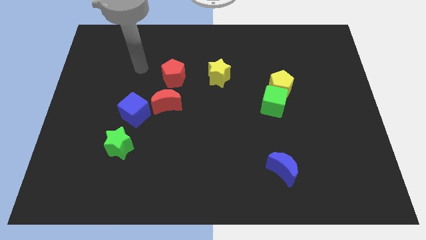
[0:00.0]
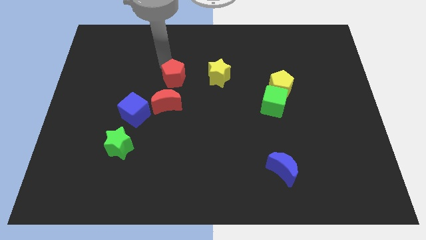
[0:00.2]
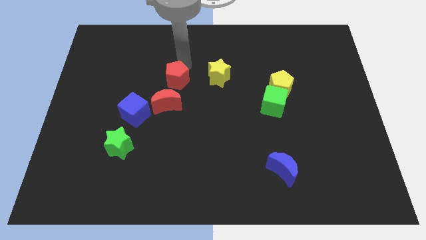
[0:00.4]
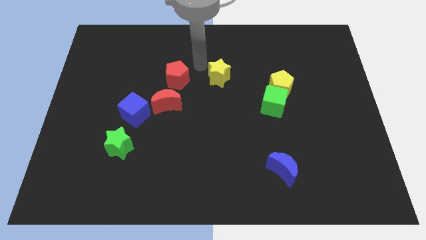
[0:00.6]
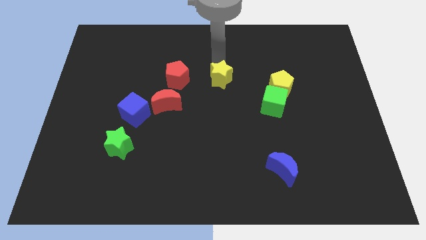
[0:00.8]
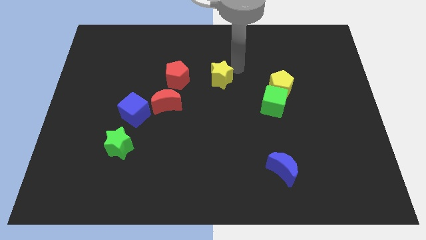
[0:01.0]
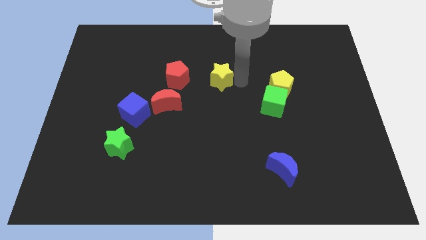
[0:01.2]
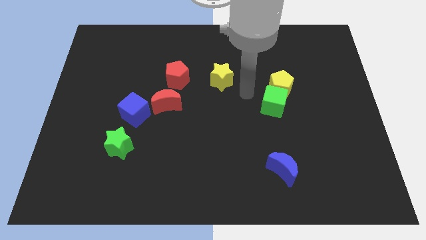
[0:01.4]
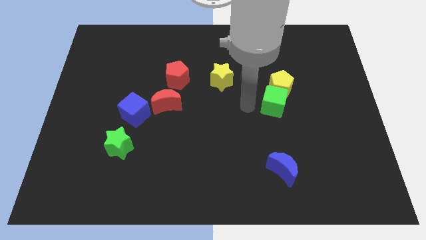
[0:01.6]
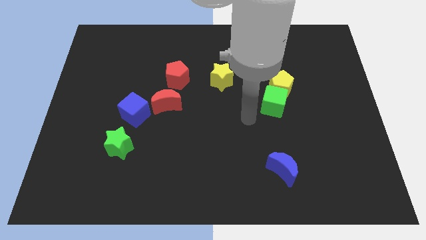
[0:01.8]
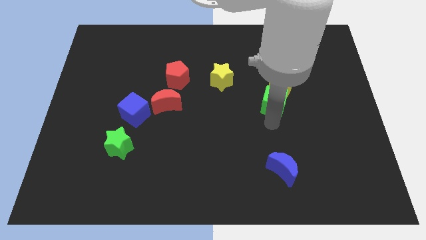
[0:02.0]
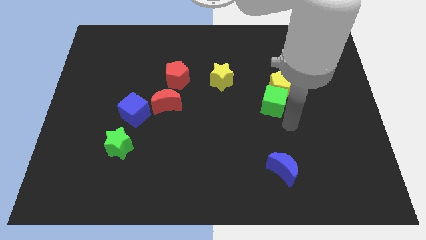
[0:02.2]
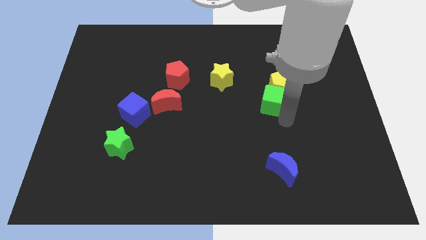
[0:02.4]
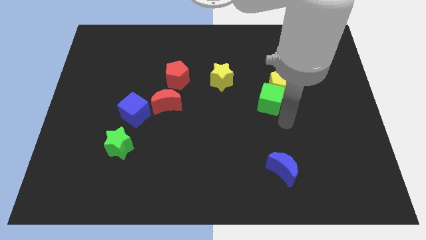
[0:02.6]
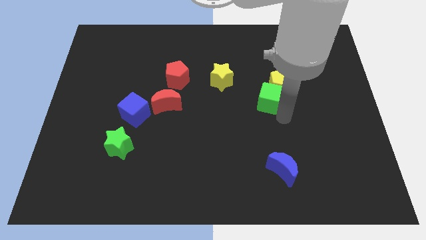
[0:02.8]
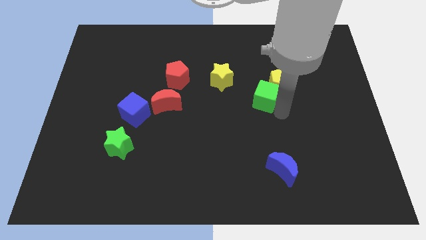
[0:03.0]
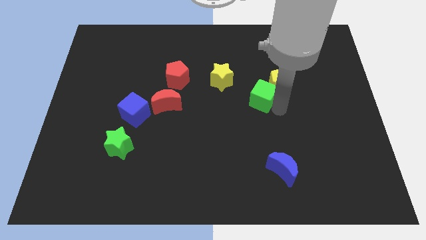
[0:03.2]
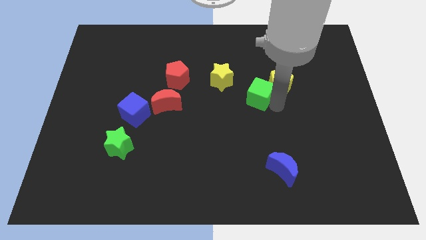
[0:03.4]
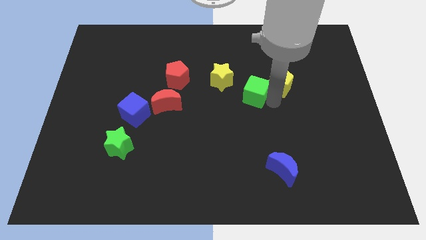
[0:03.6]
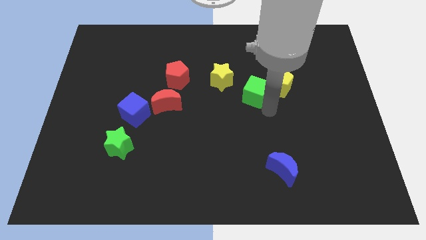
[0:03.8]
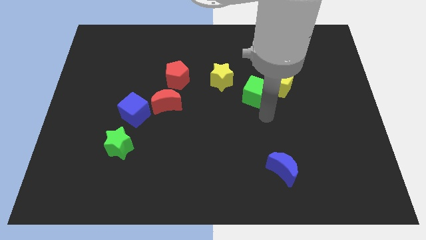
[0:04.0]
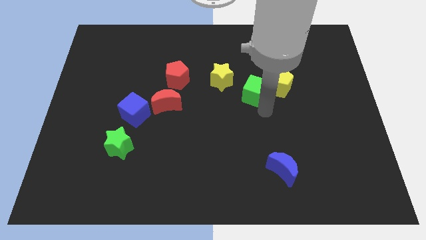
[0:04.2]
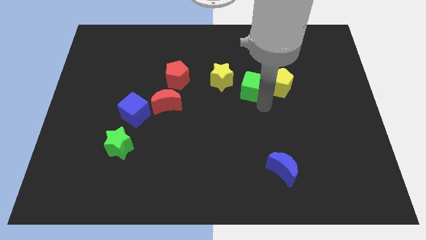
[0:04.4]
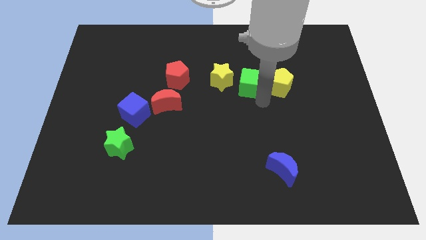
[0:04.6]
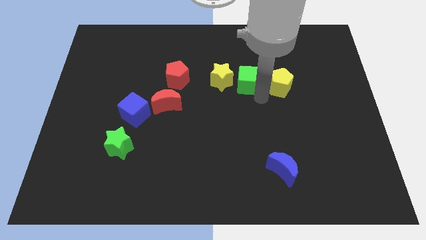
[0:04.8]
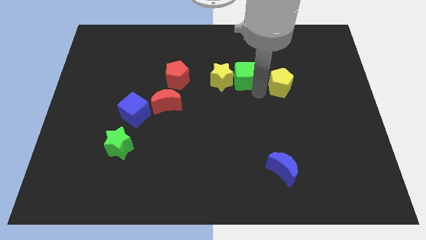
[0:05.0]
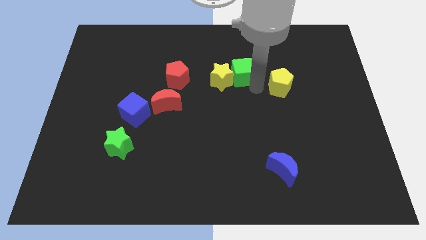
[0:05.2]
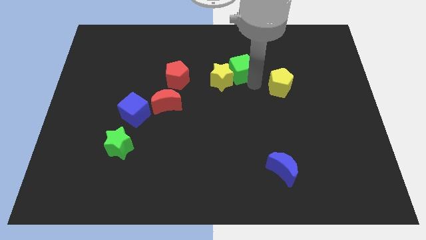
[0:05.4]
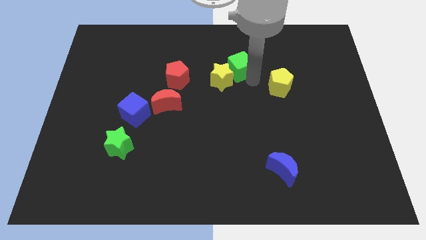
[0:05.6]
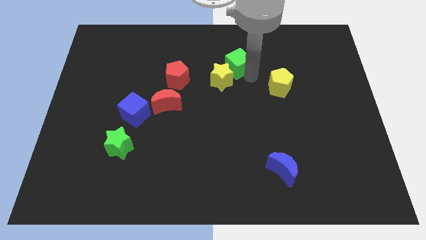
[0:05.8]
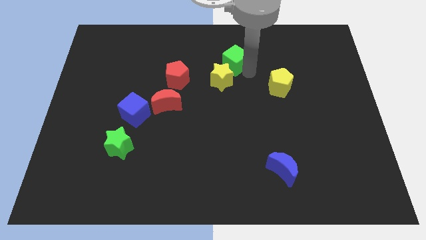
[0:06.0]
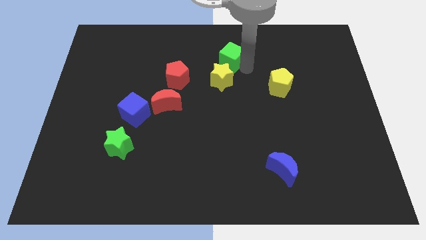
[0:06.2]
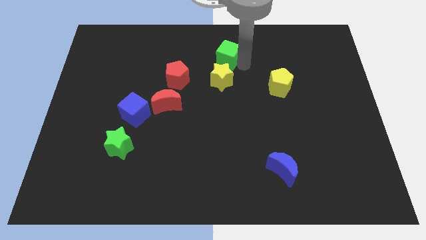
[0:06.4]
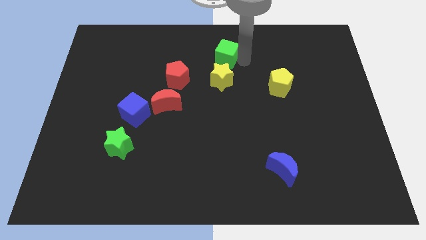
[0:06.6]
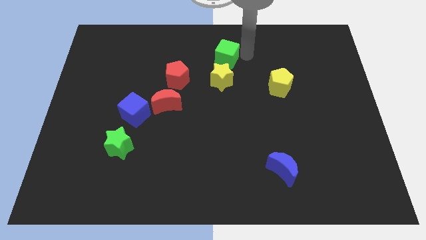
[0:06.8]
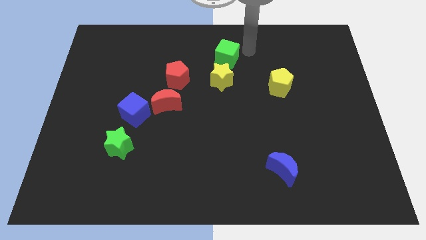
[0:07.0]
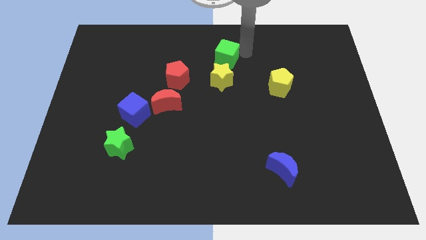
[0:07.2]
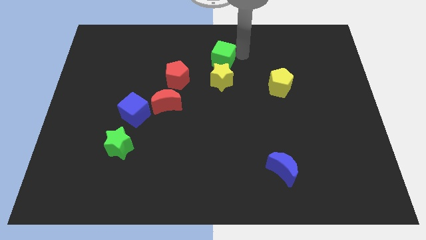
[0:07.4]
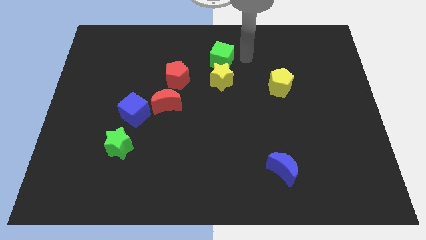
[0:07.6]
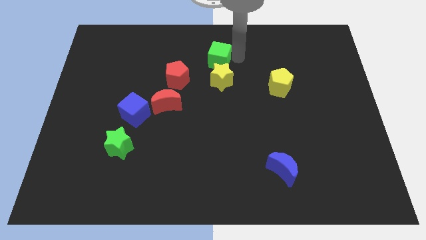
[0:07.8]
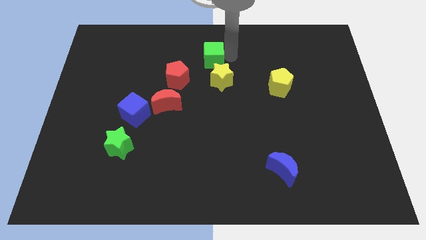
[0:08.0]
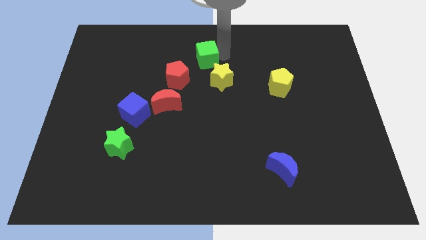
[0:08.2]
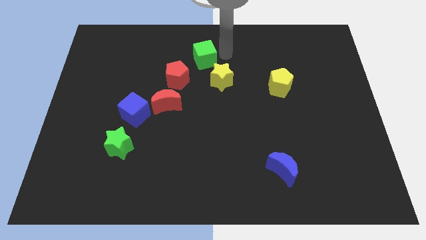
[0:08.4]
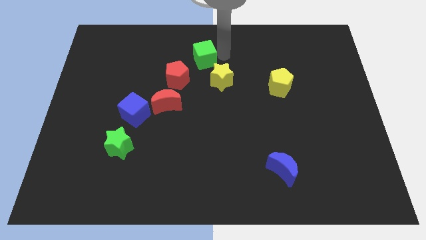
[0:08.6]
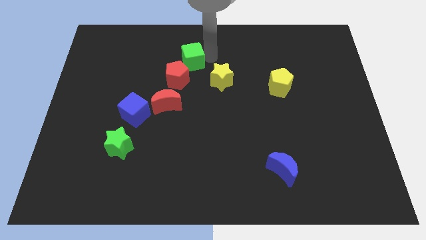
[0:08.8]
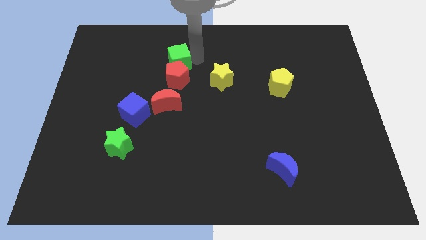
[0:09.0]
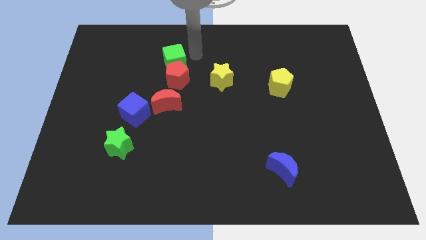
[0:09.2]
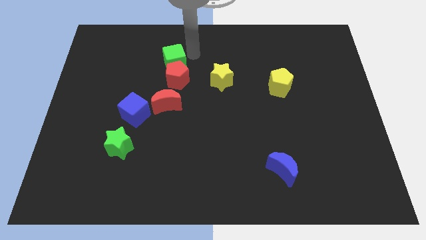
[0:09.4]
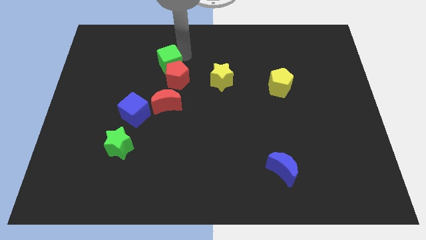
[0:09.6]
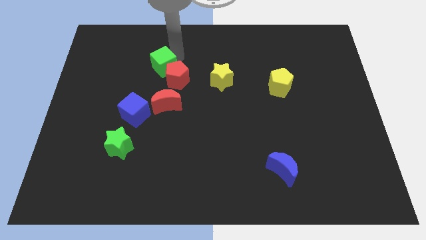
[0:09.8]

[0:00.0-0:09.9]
push the green cube just left of the red pentagon

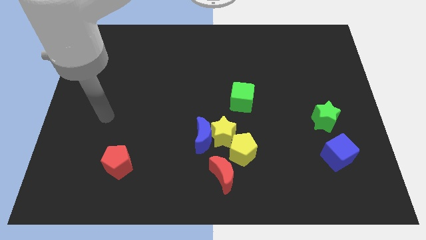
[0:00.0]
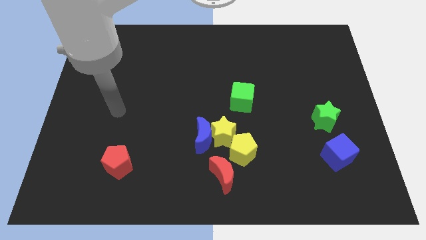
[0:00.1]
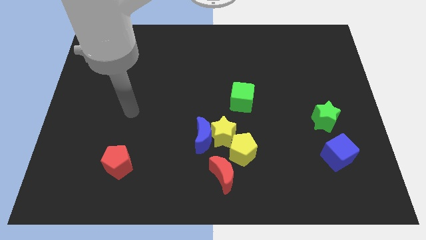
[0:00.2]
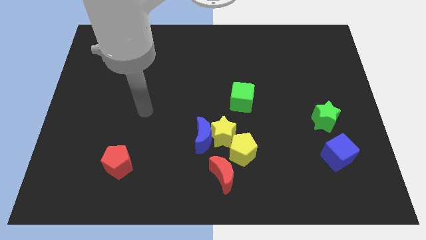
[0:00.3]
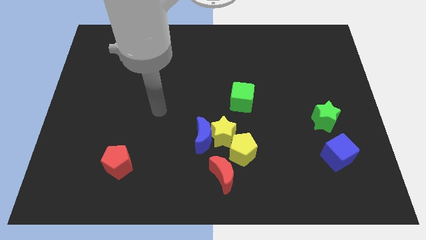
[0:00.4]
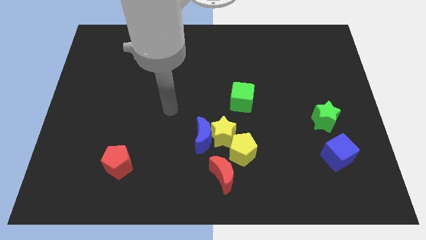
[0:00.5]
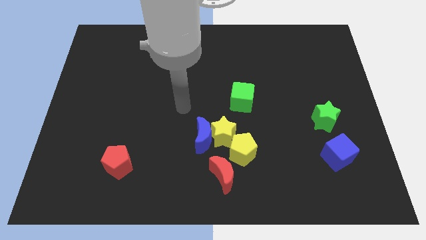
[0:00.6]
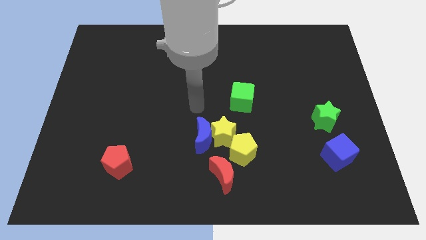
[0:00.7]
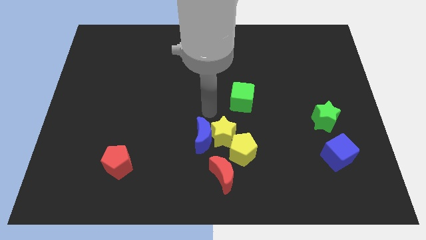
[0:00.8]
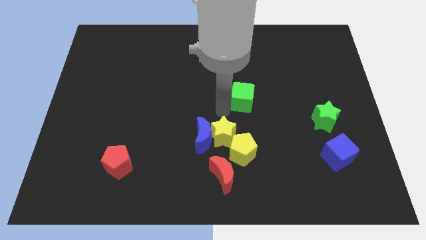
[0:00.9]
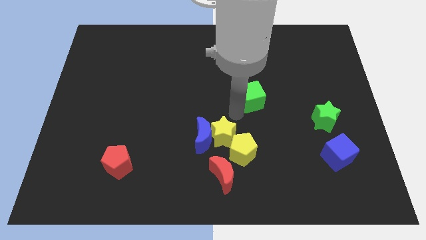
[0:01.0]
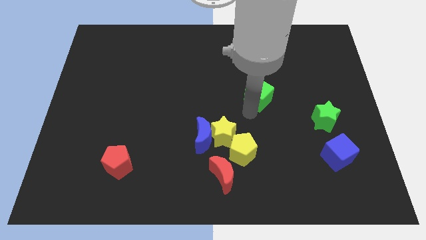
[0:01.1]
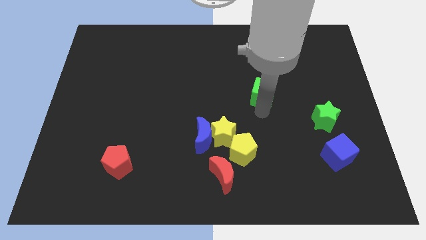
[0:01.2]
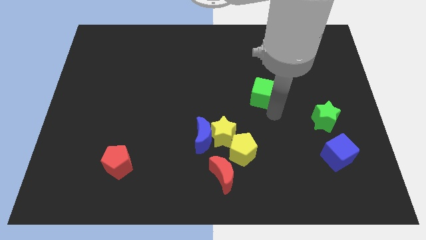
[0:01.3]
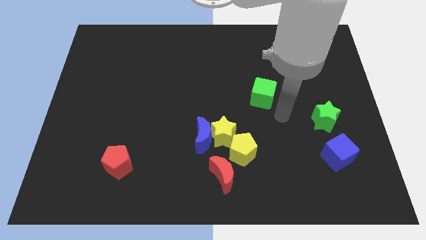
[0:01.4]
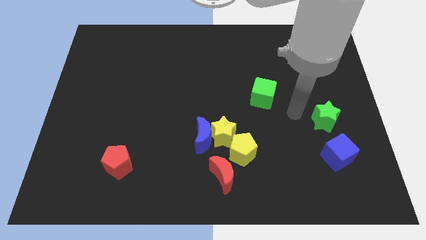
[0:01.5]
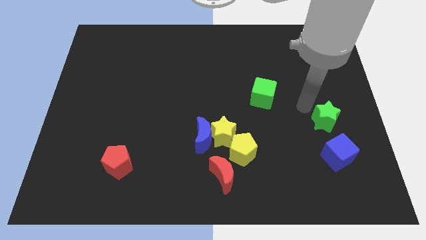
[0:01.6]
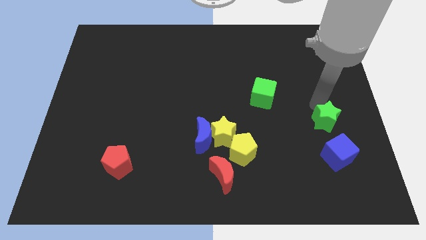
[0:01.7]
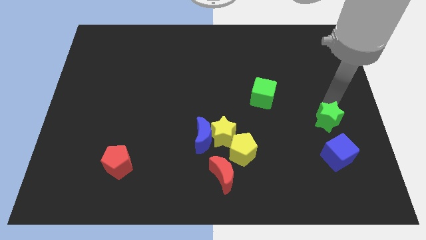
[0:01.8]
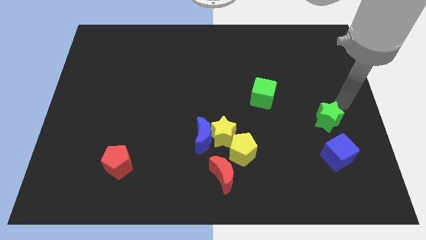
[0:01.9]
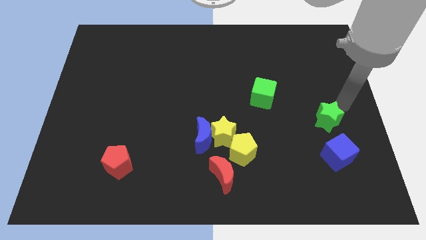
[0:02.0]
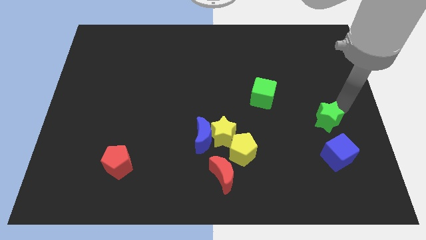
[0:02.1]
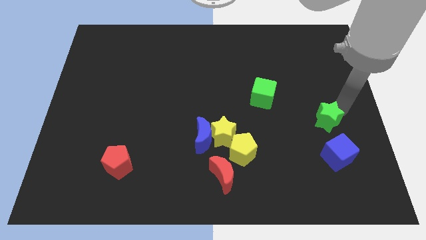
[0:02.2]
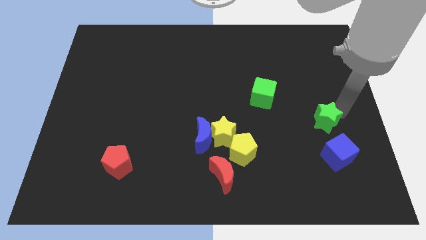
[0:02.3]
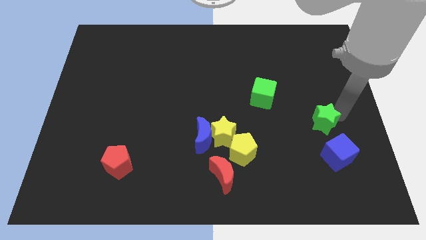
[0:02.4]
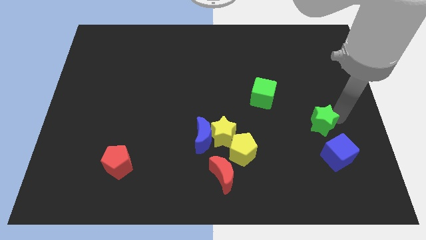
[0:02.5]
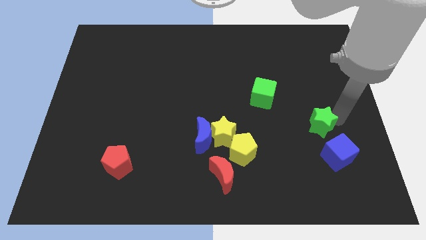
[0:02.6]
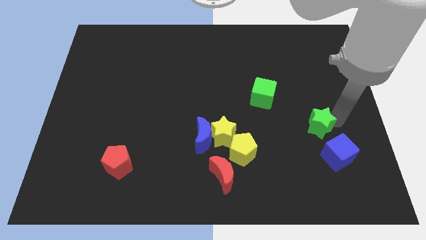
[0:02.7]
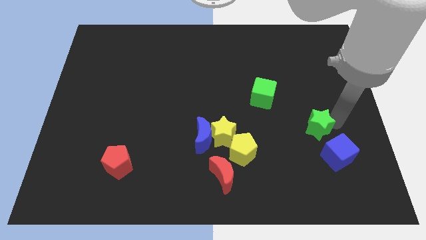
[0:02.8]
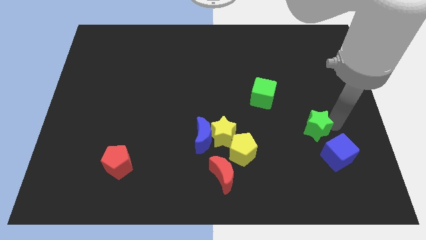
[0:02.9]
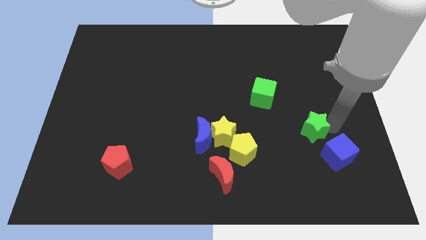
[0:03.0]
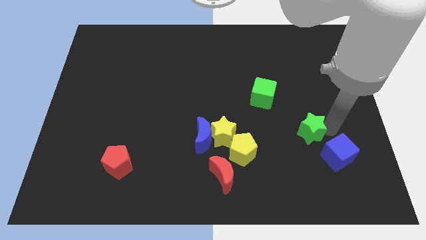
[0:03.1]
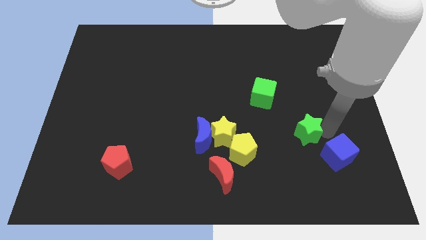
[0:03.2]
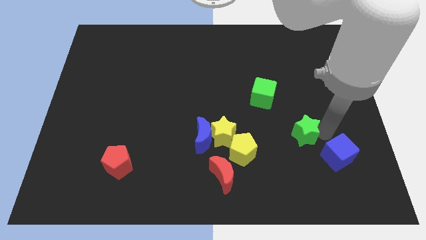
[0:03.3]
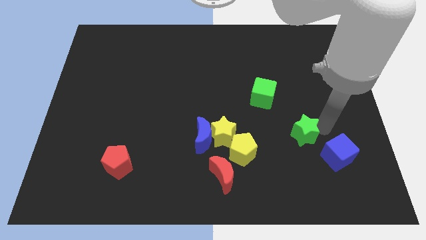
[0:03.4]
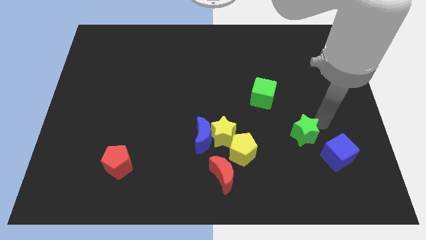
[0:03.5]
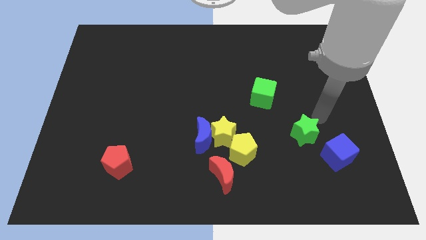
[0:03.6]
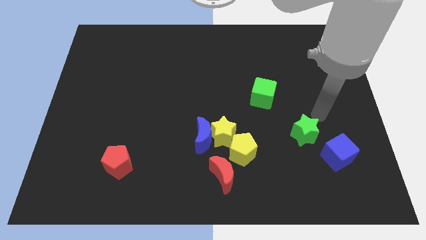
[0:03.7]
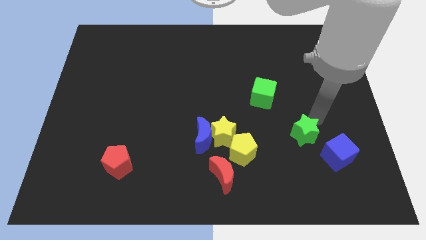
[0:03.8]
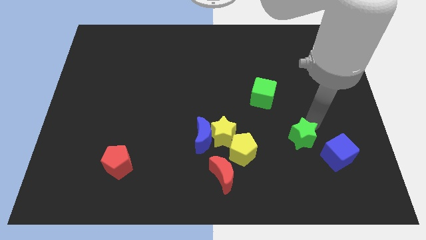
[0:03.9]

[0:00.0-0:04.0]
put the green star just left of the blue cube
